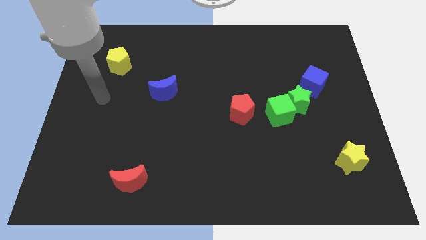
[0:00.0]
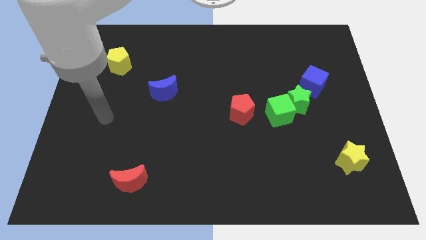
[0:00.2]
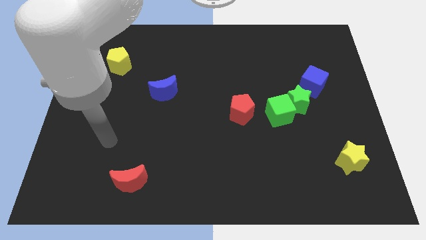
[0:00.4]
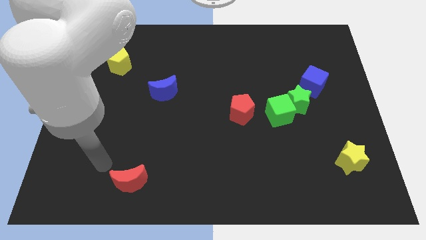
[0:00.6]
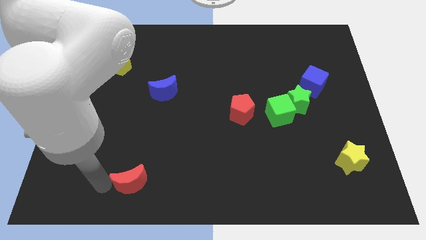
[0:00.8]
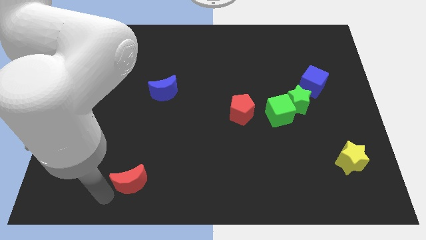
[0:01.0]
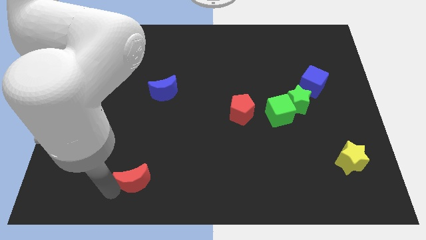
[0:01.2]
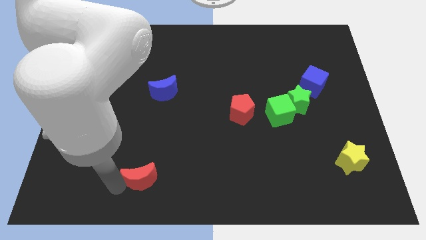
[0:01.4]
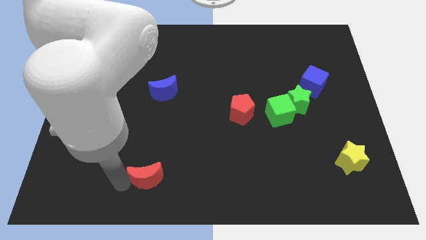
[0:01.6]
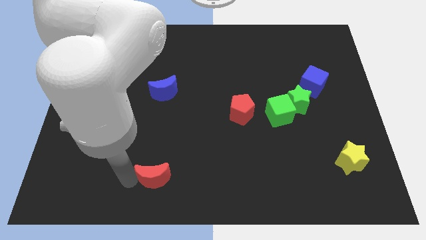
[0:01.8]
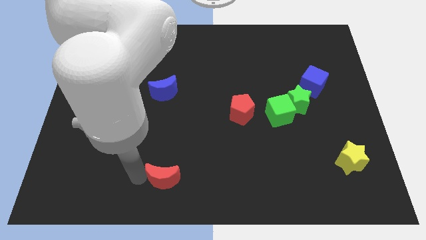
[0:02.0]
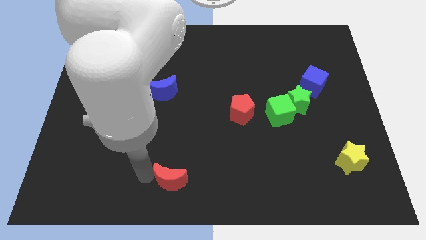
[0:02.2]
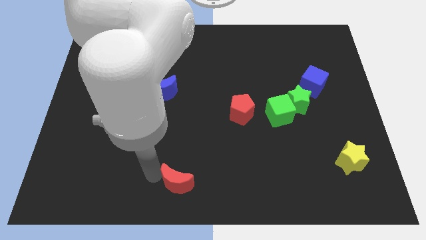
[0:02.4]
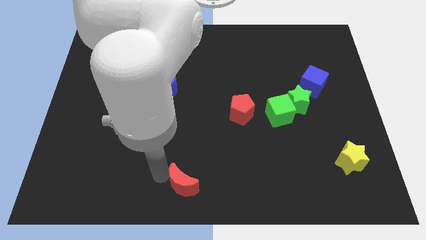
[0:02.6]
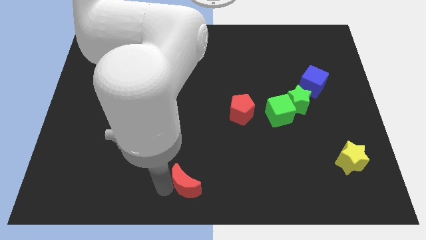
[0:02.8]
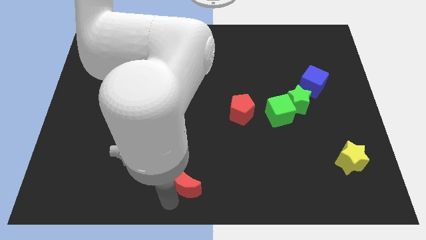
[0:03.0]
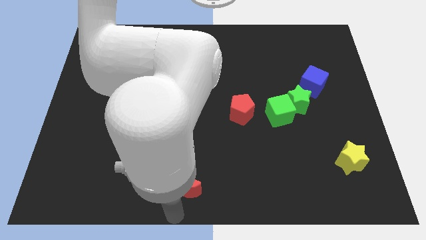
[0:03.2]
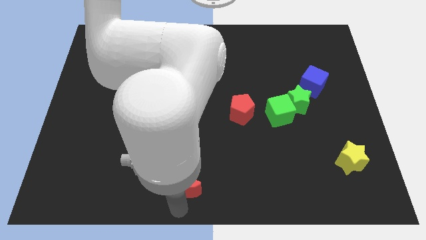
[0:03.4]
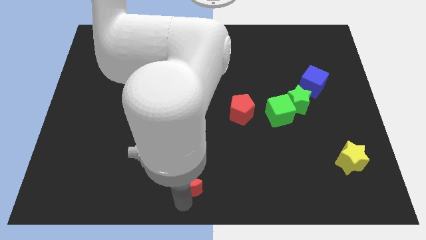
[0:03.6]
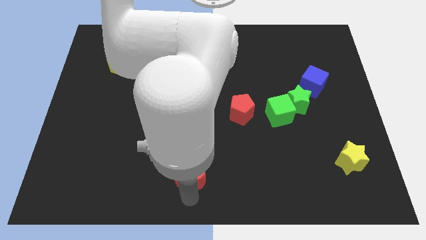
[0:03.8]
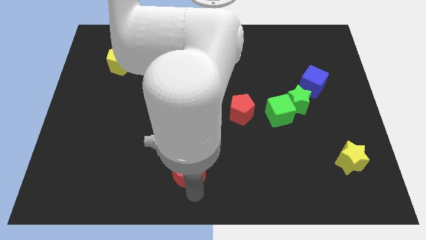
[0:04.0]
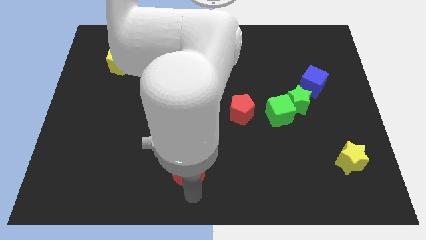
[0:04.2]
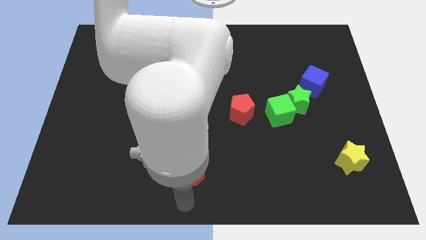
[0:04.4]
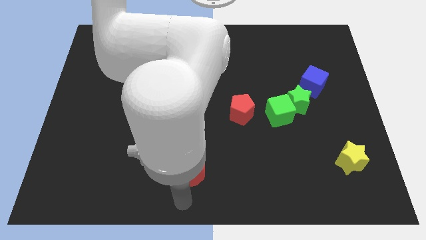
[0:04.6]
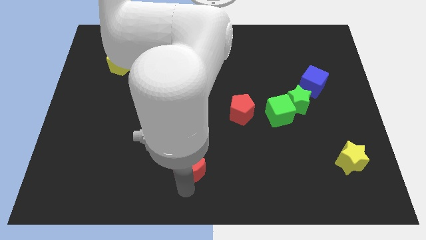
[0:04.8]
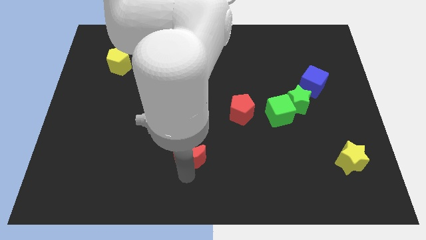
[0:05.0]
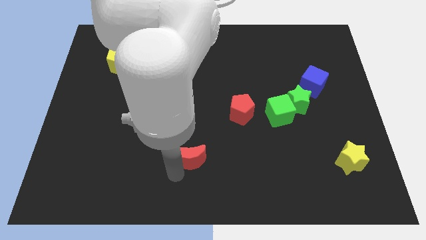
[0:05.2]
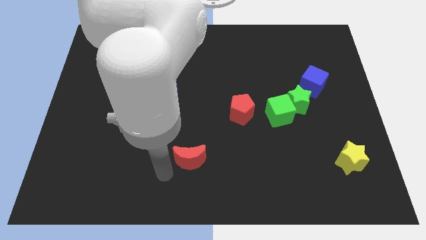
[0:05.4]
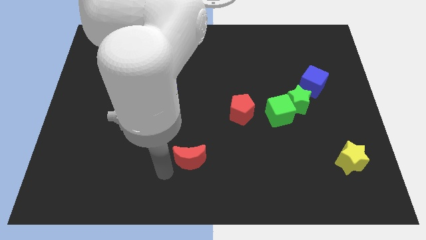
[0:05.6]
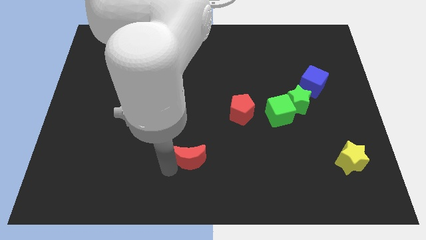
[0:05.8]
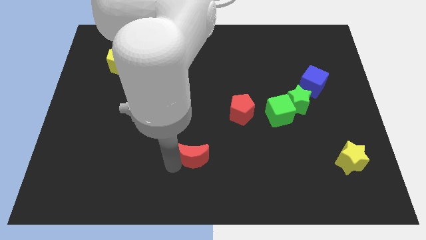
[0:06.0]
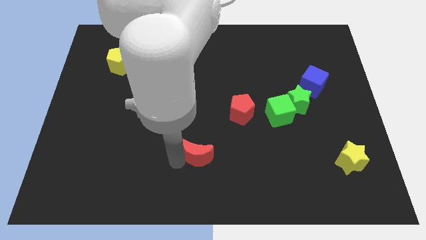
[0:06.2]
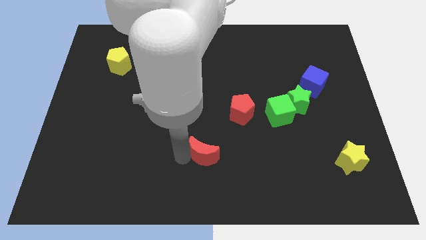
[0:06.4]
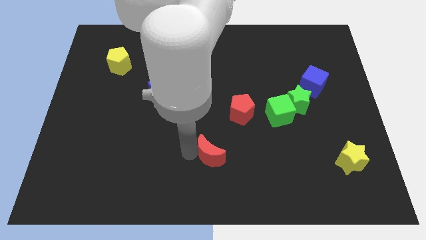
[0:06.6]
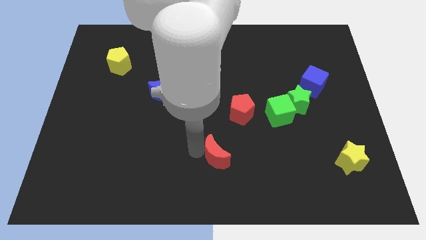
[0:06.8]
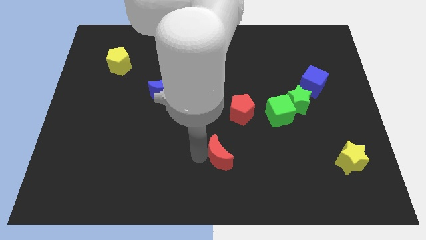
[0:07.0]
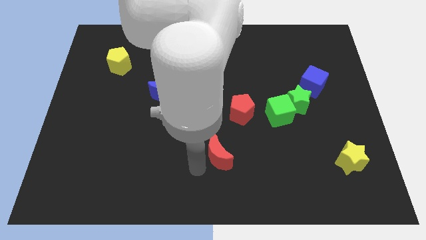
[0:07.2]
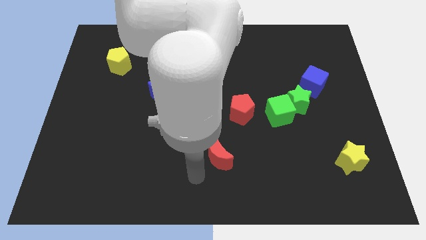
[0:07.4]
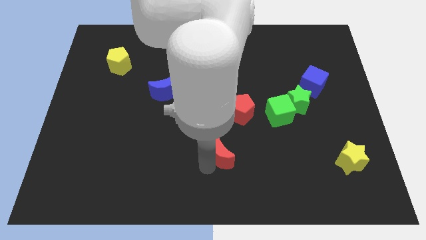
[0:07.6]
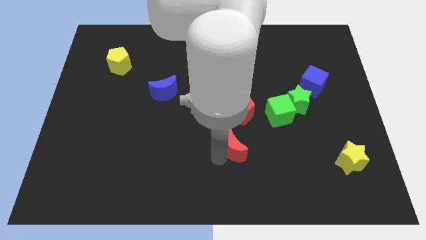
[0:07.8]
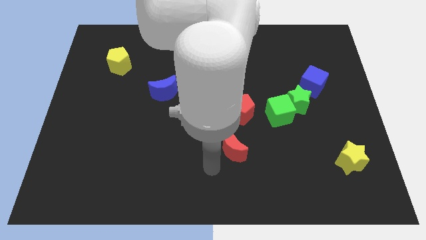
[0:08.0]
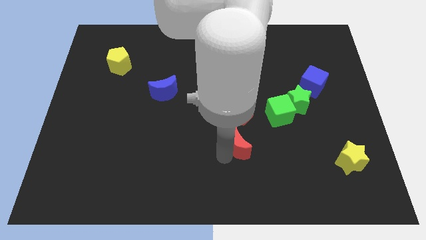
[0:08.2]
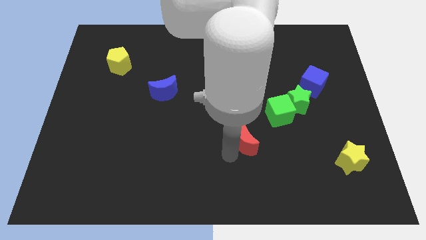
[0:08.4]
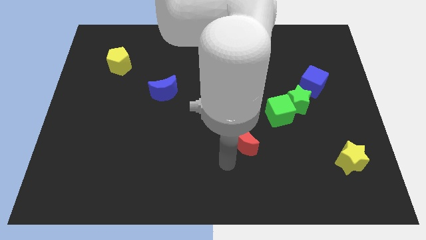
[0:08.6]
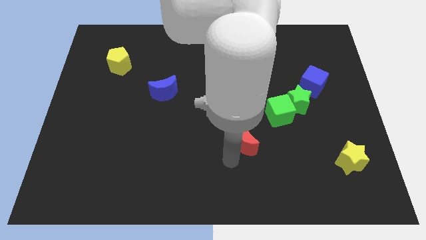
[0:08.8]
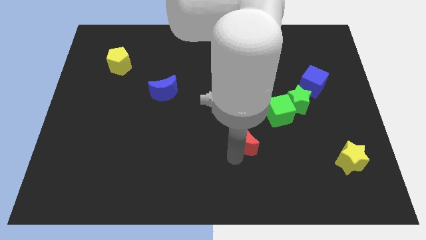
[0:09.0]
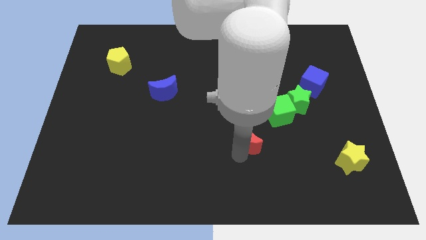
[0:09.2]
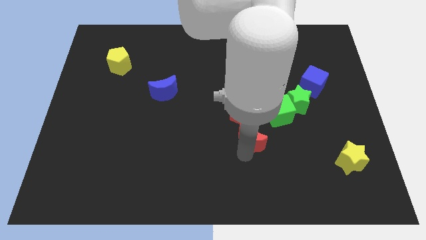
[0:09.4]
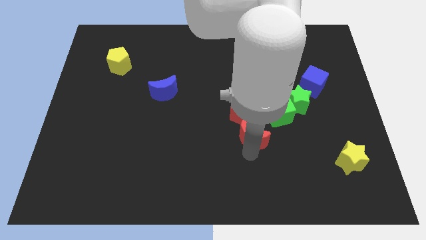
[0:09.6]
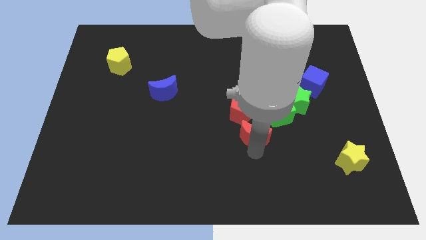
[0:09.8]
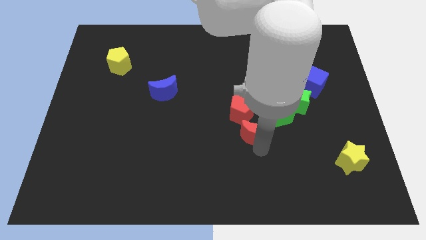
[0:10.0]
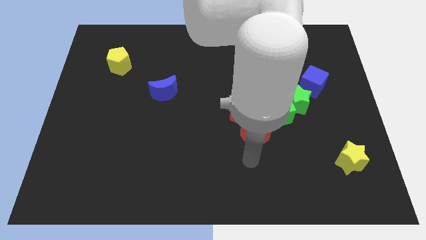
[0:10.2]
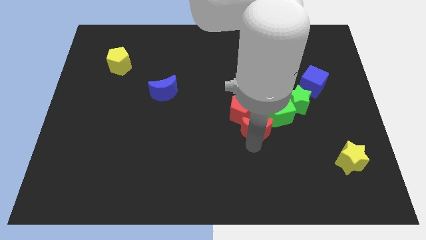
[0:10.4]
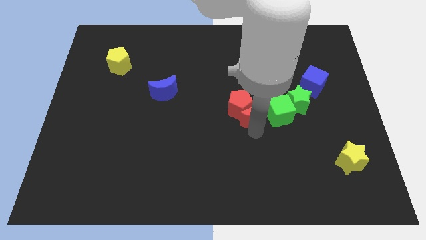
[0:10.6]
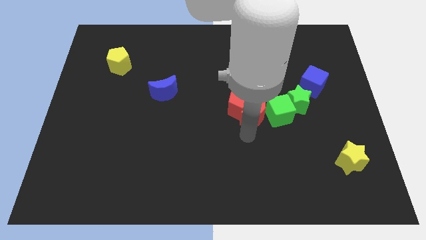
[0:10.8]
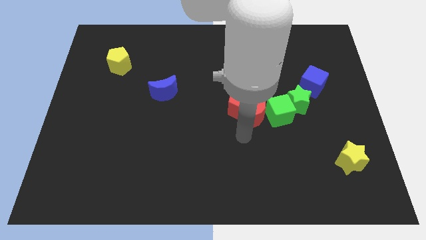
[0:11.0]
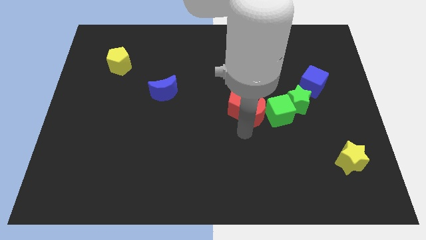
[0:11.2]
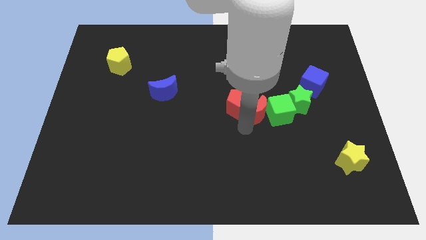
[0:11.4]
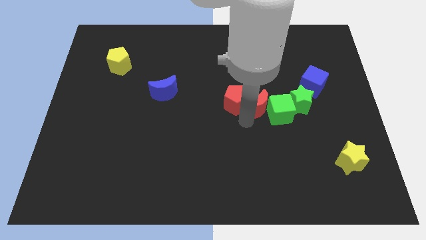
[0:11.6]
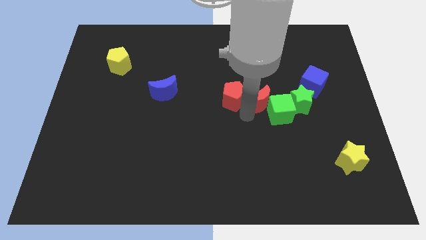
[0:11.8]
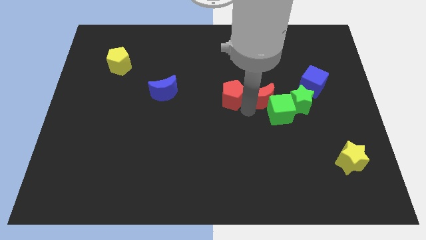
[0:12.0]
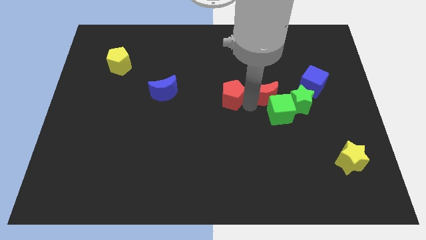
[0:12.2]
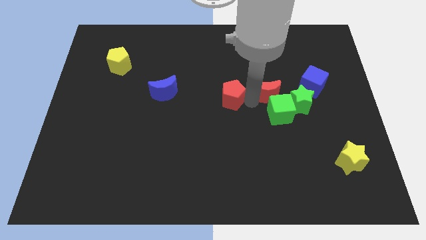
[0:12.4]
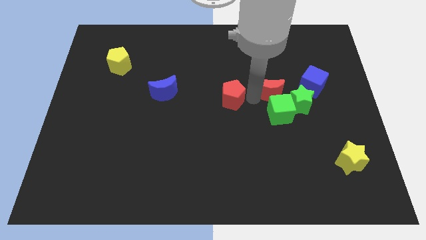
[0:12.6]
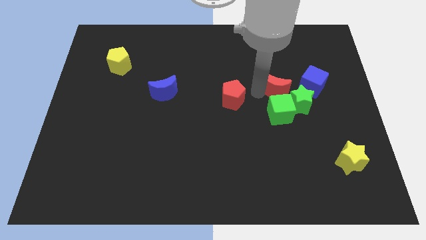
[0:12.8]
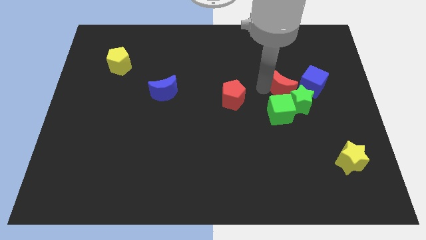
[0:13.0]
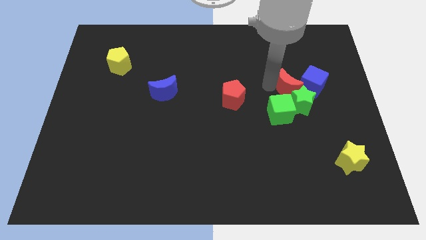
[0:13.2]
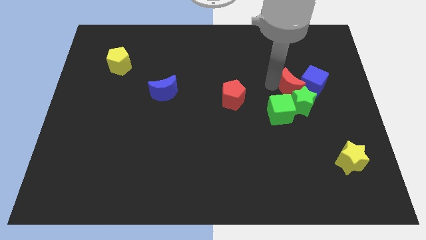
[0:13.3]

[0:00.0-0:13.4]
move the red moon to the blue cube

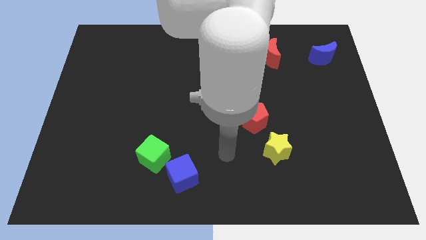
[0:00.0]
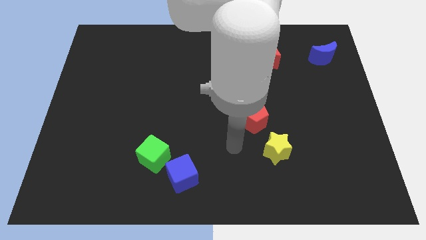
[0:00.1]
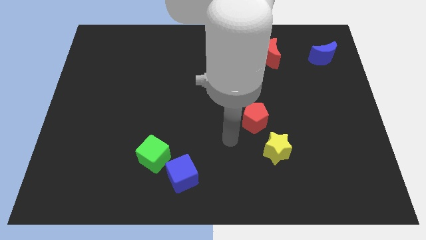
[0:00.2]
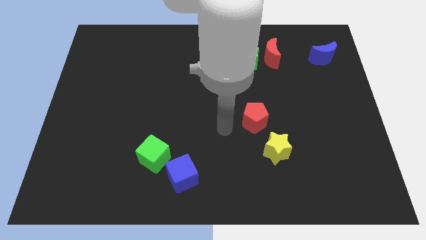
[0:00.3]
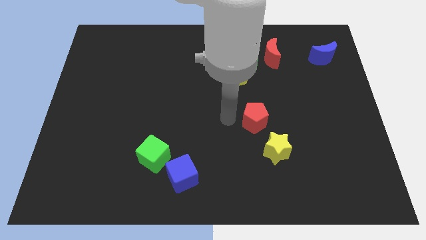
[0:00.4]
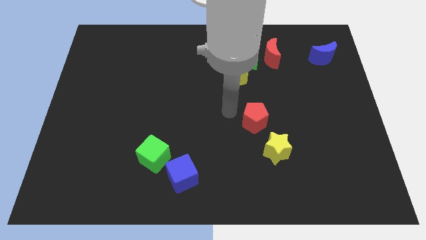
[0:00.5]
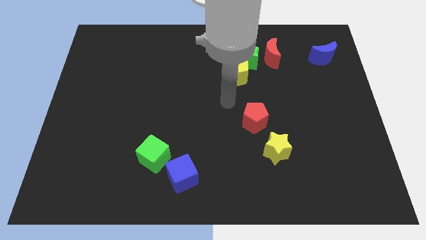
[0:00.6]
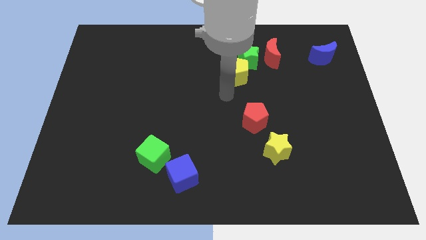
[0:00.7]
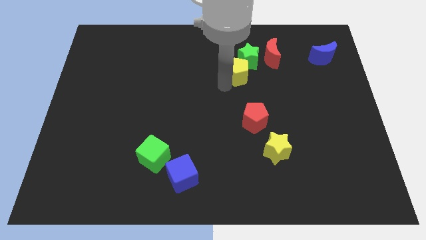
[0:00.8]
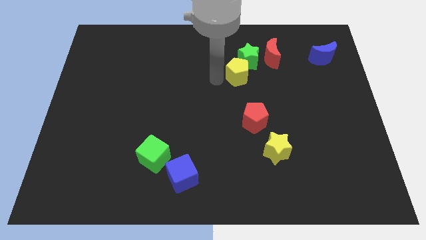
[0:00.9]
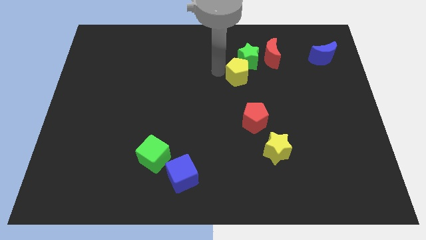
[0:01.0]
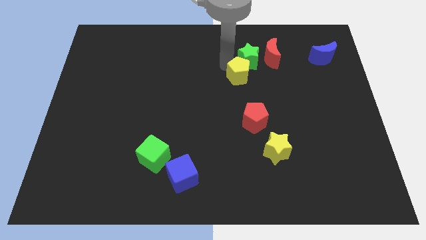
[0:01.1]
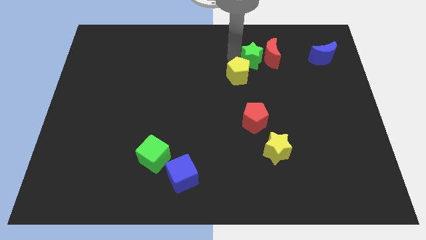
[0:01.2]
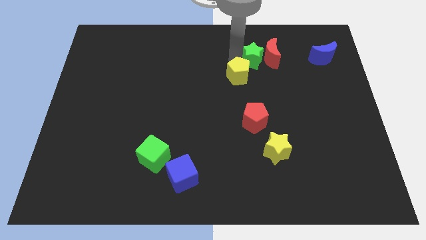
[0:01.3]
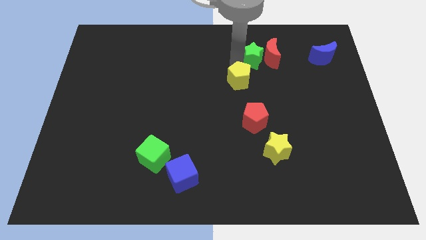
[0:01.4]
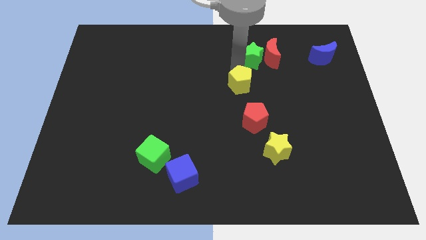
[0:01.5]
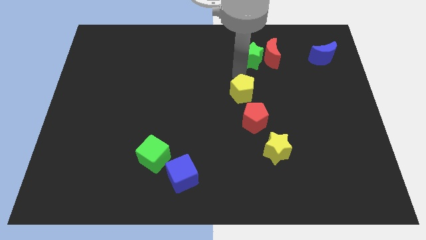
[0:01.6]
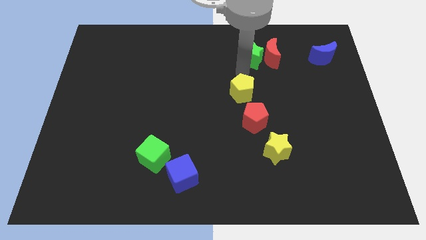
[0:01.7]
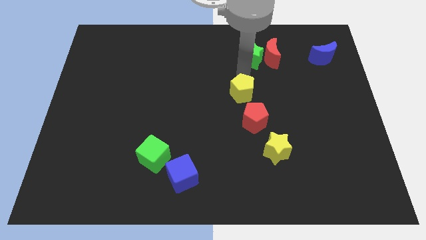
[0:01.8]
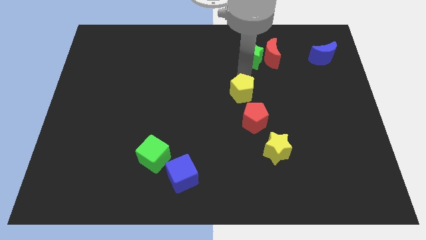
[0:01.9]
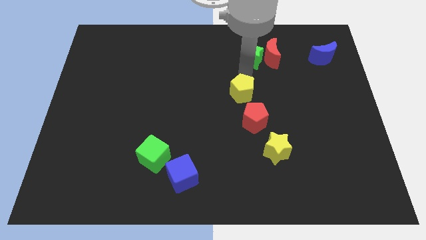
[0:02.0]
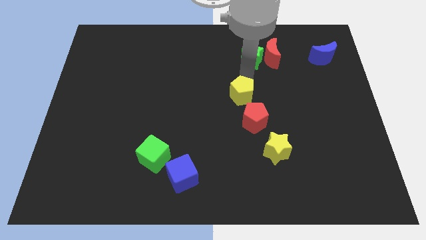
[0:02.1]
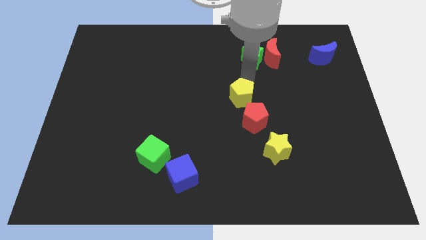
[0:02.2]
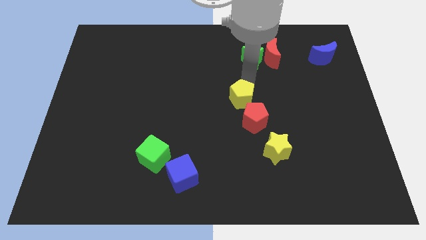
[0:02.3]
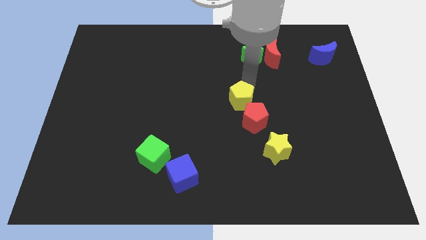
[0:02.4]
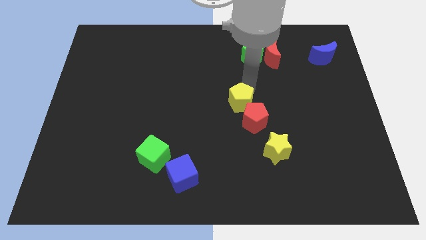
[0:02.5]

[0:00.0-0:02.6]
move the yellow pentagon close to the red pentagon
